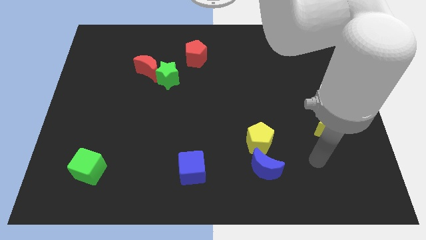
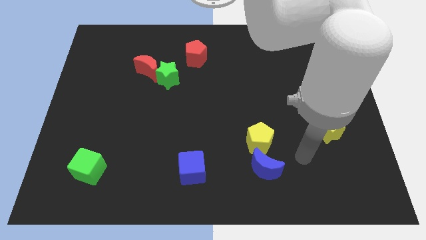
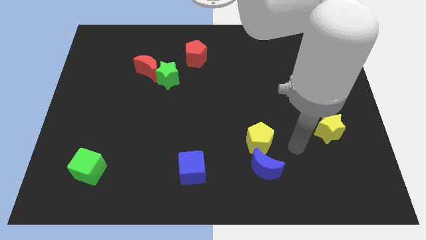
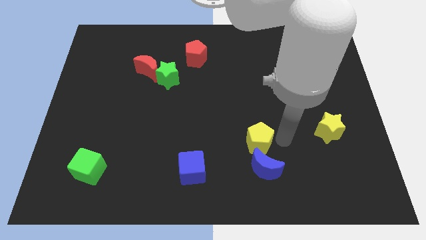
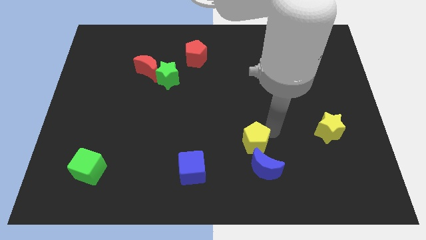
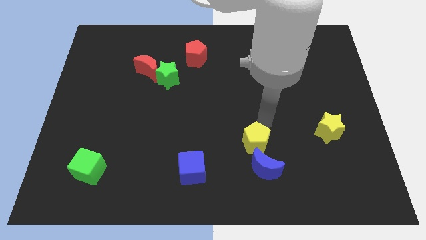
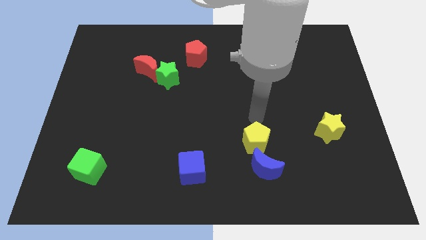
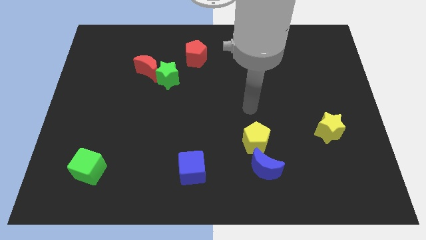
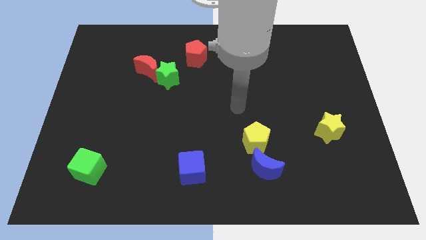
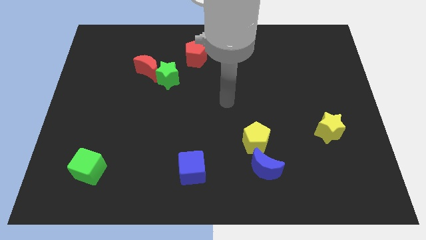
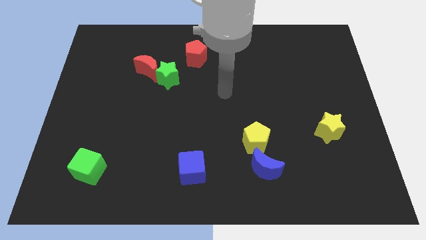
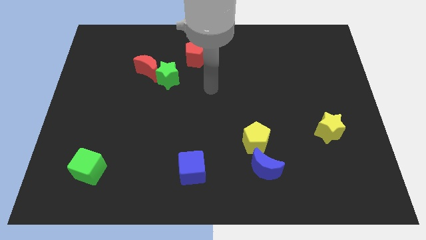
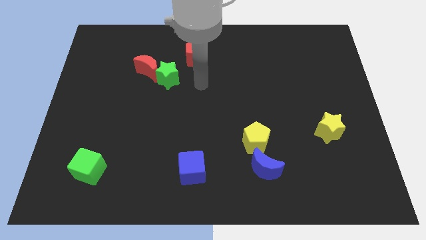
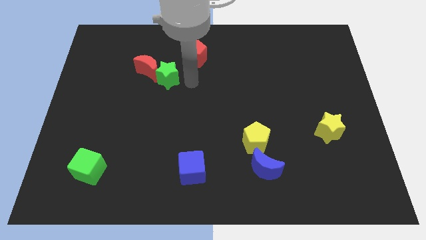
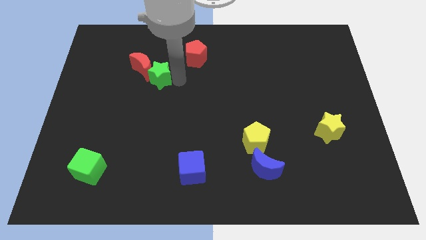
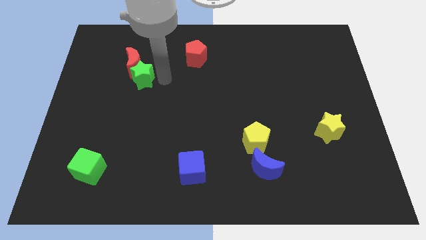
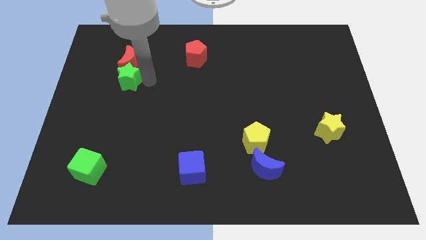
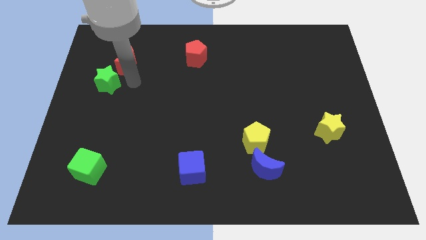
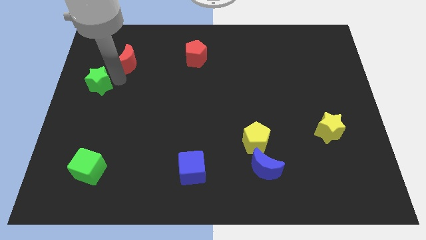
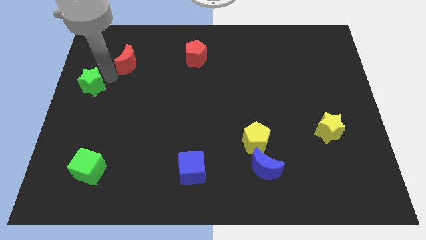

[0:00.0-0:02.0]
pull the red moon apart from the green star

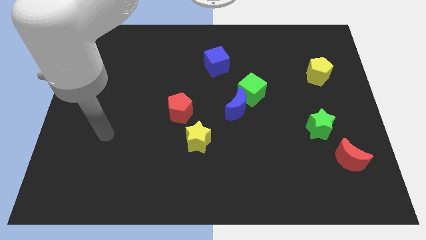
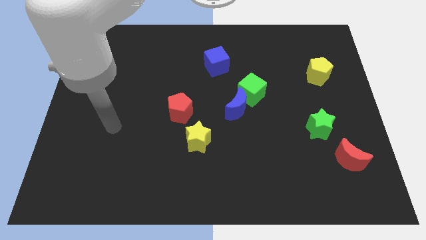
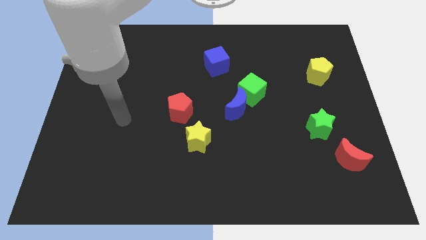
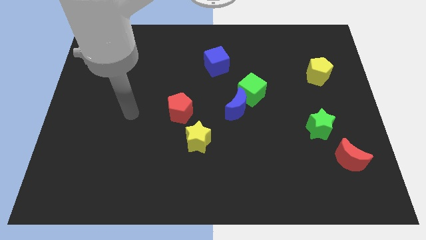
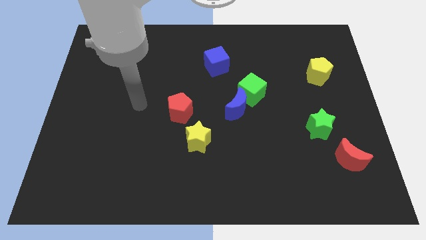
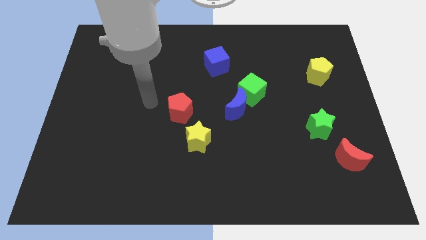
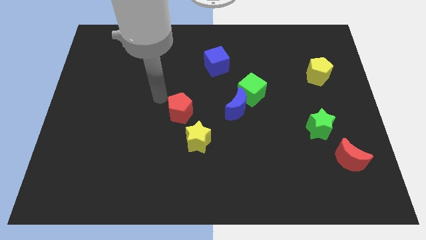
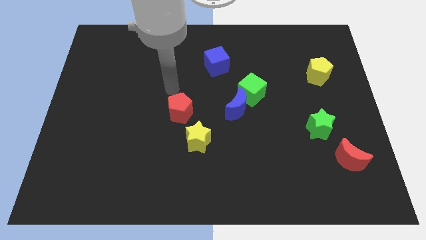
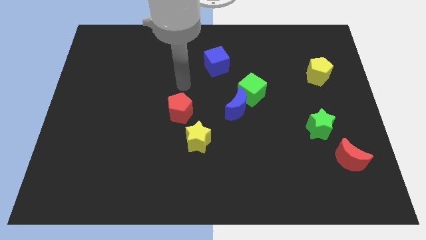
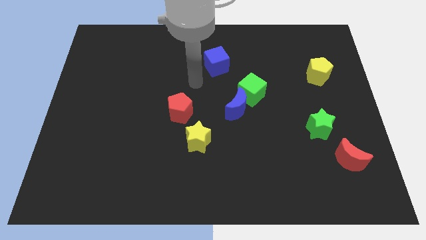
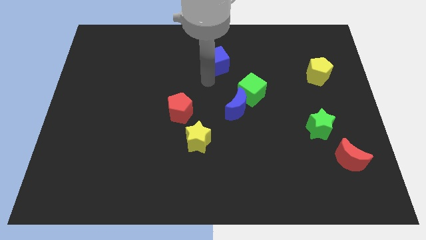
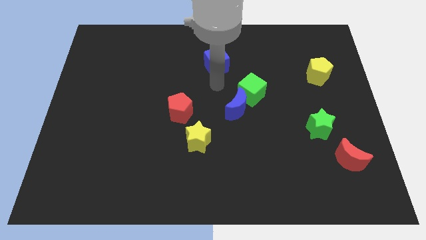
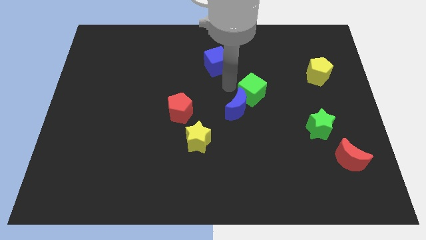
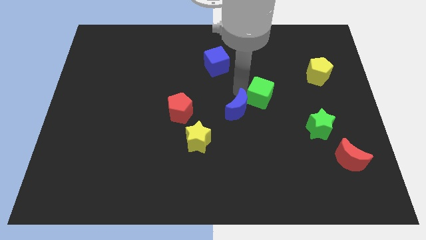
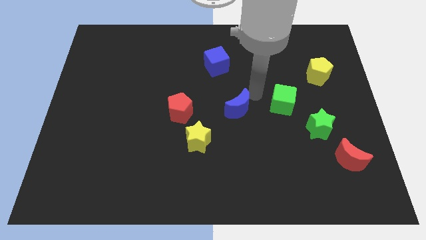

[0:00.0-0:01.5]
separate the blue moon from the green cube

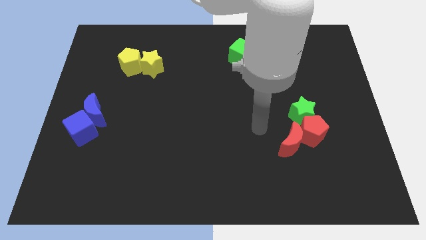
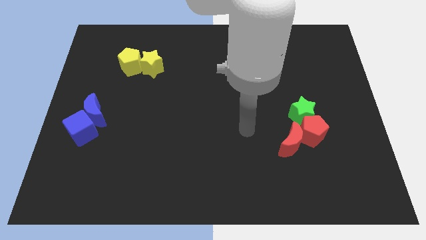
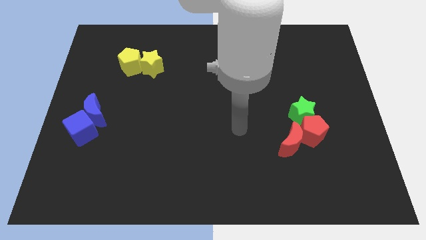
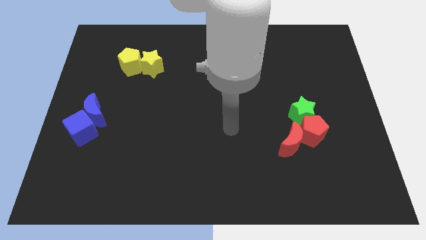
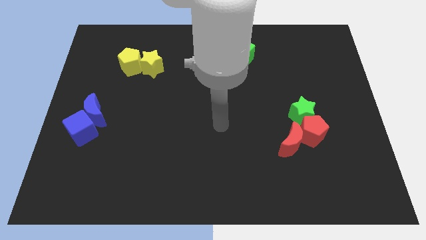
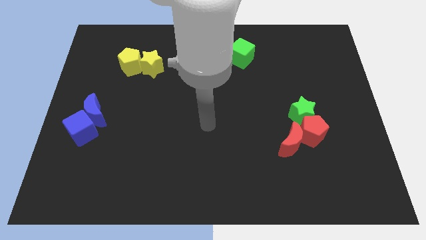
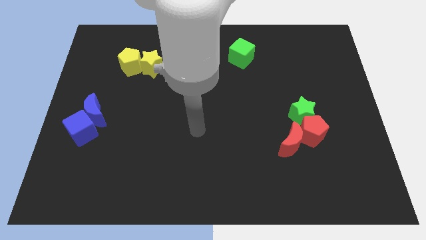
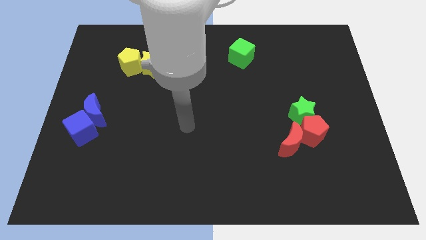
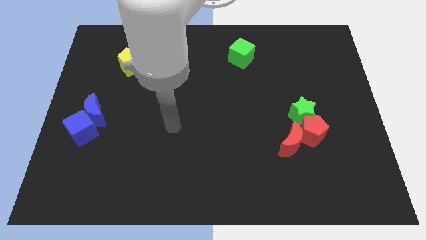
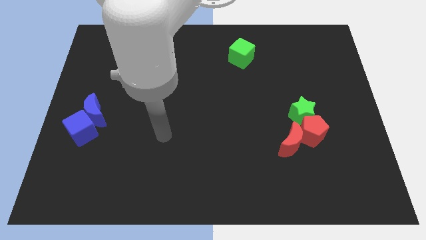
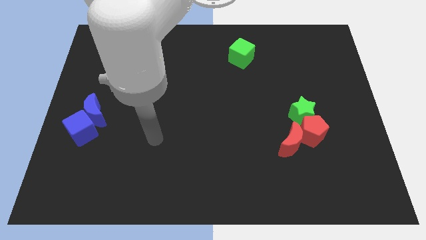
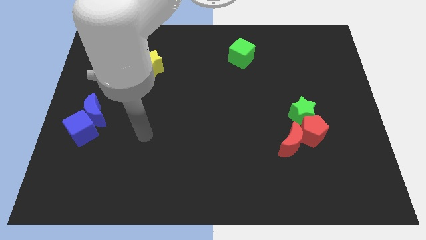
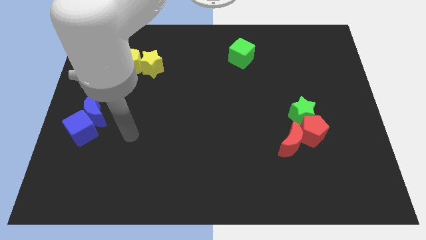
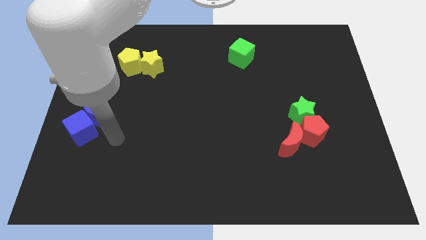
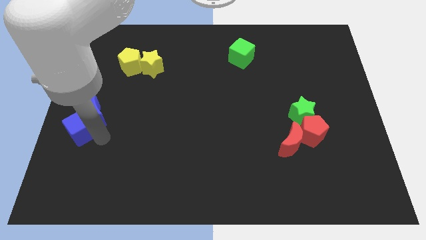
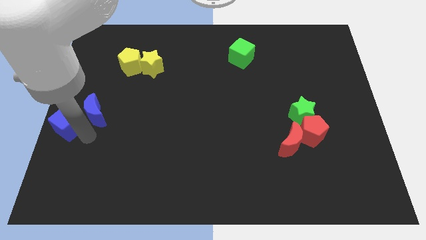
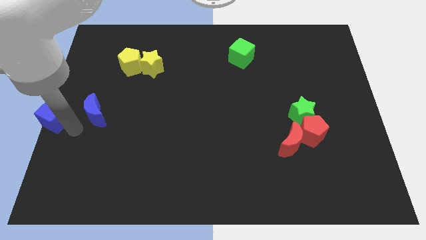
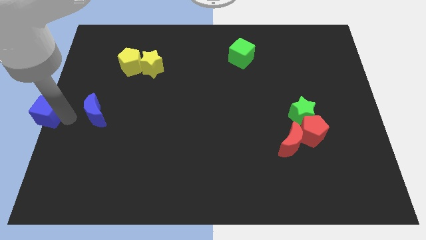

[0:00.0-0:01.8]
separate the blue moon from the blue cube

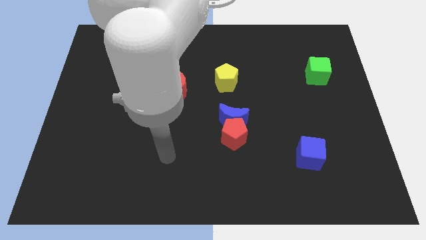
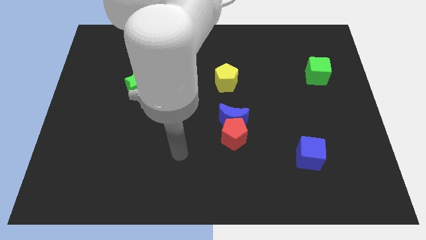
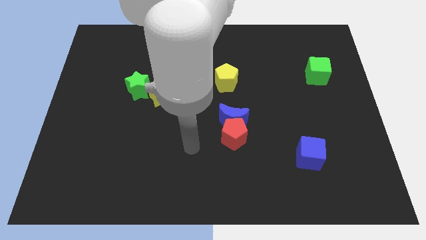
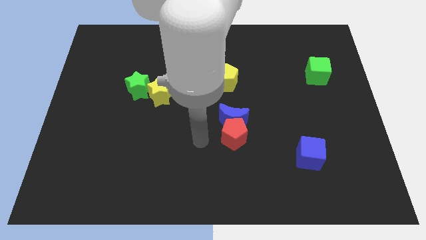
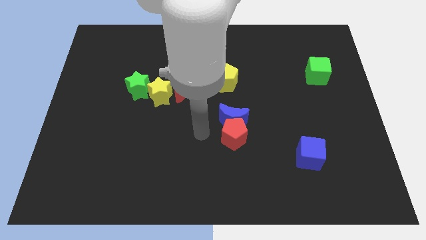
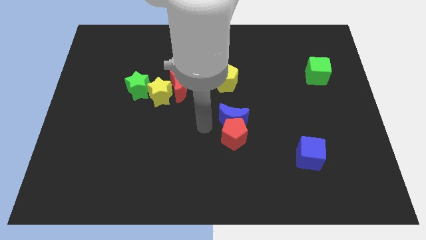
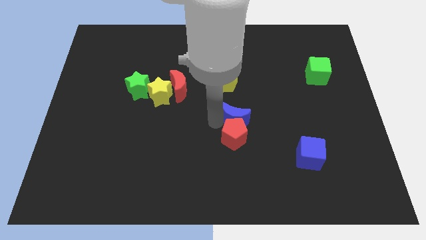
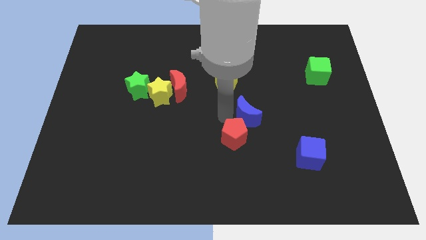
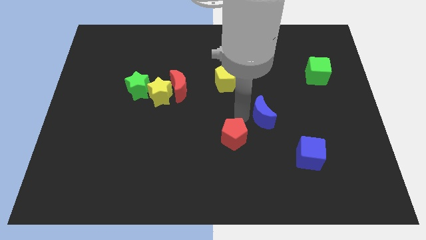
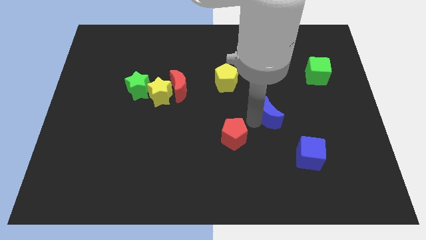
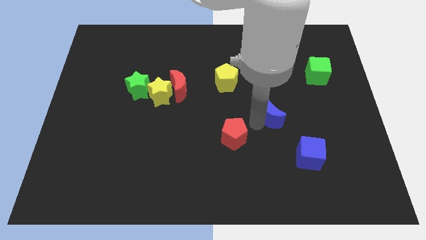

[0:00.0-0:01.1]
pull the red pentagon apart from the blue moon

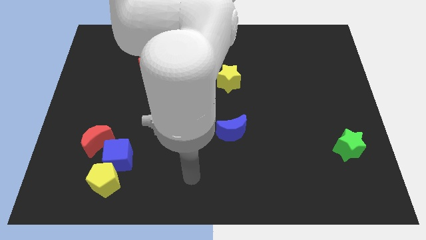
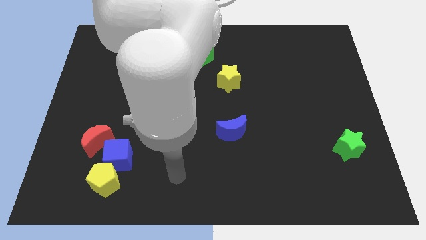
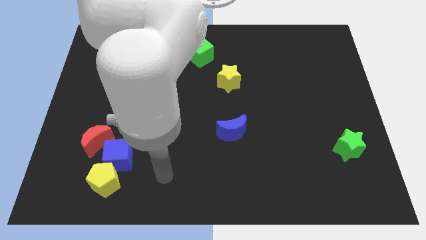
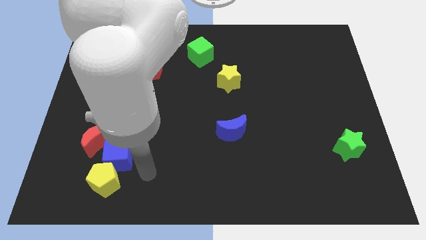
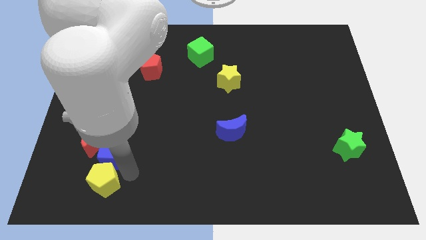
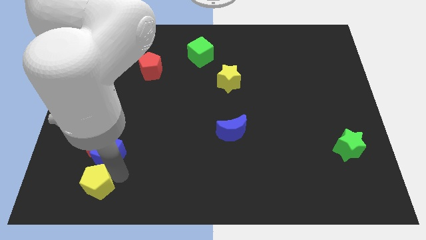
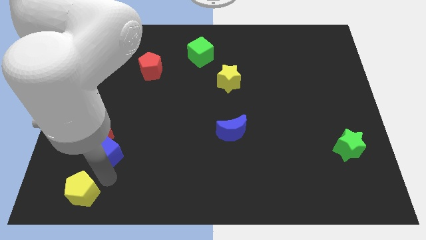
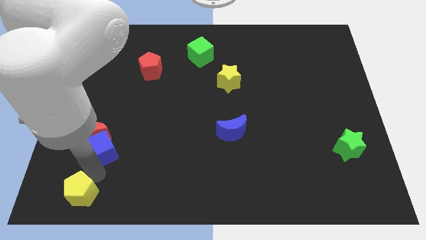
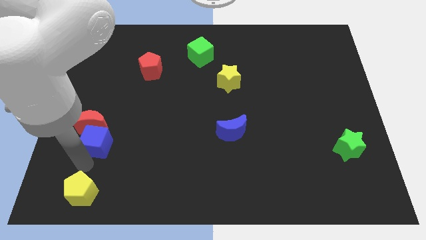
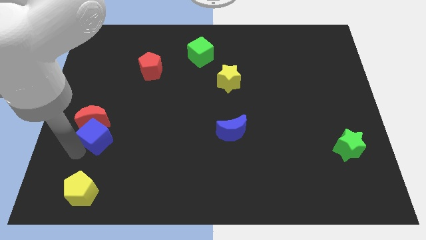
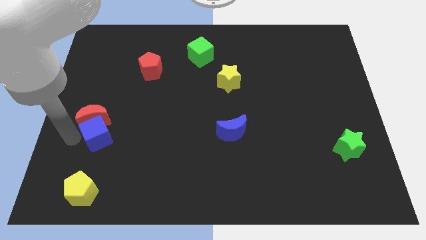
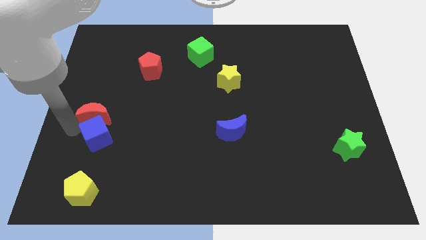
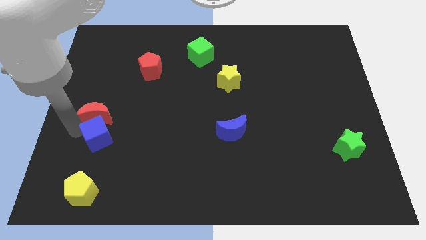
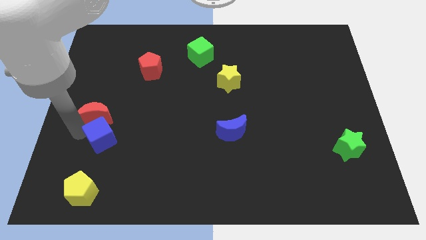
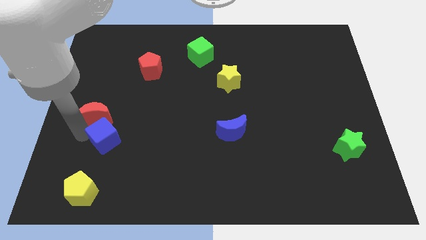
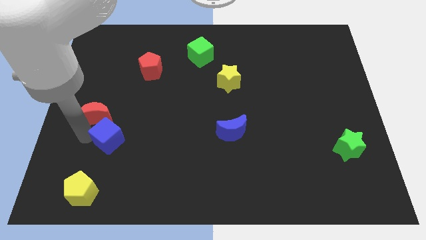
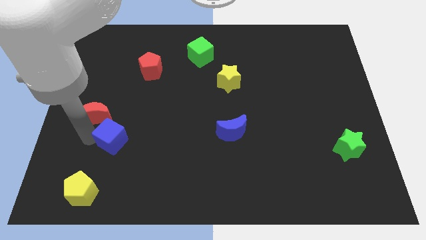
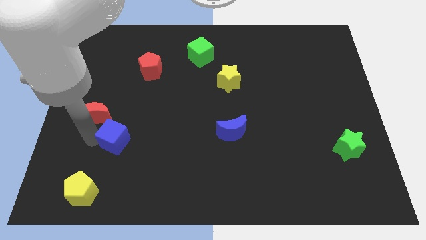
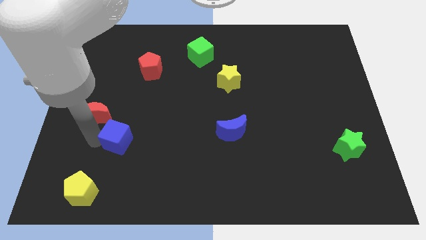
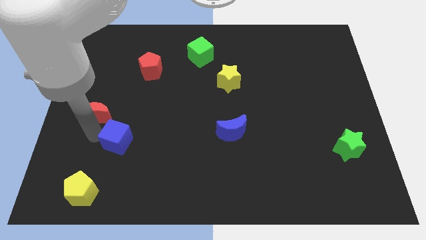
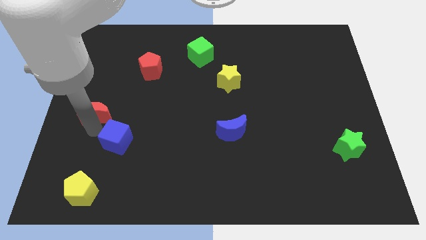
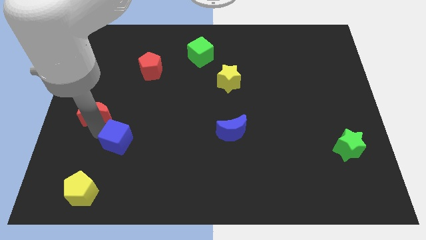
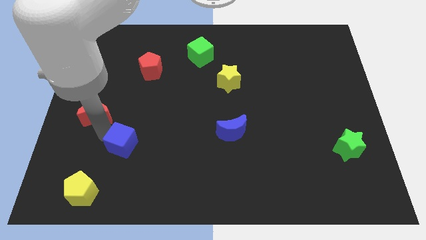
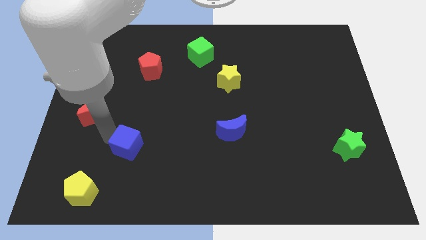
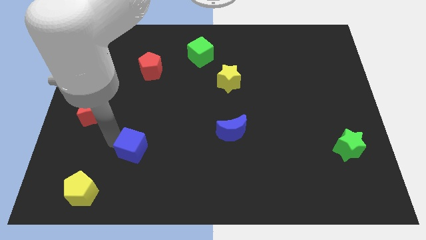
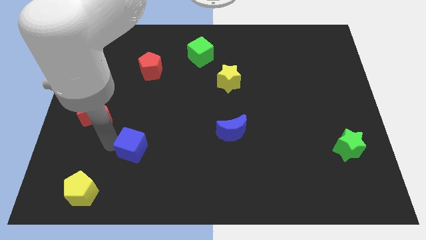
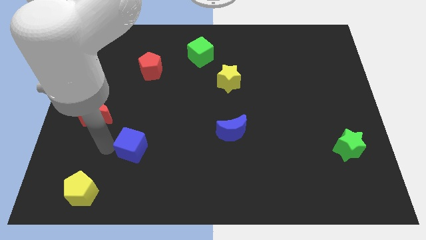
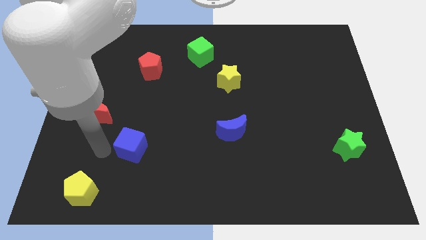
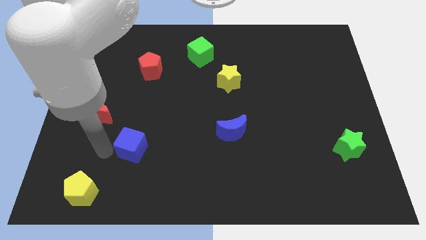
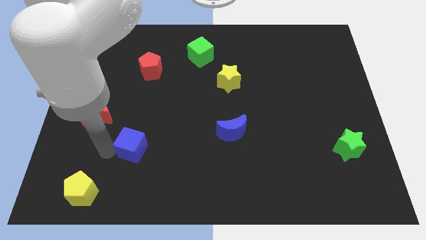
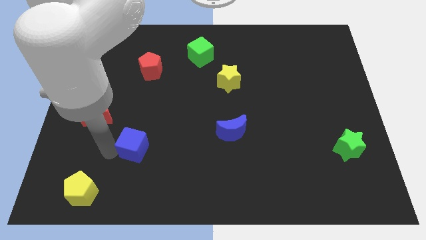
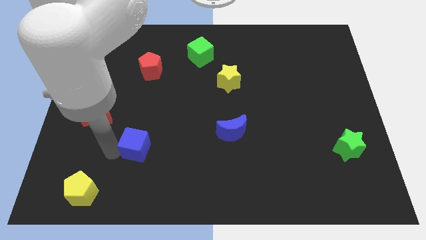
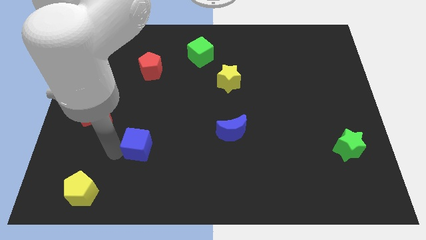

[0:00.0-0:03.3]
pull the blue cube apart from the yellow pentagon and red moon
